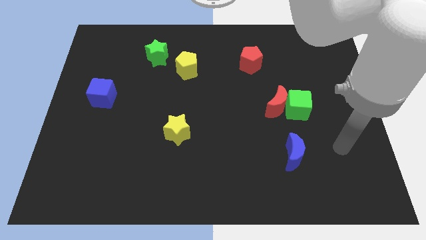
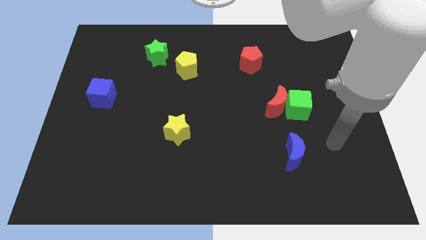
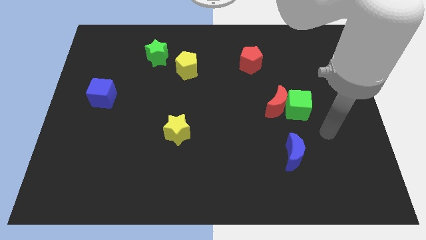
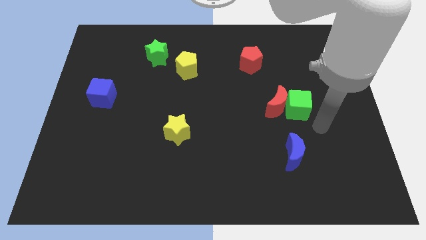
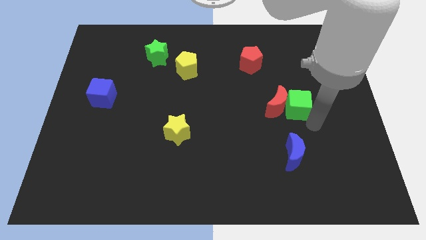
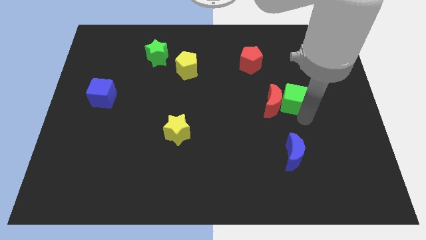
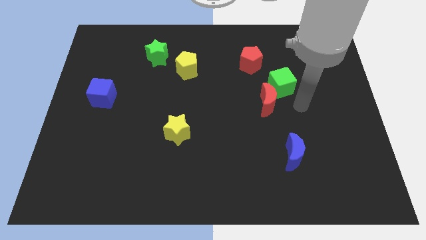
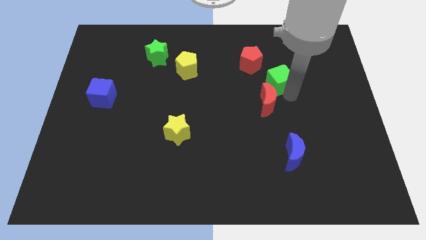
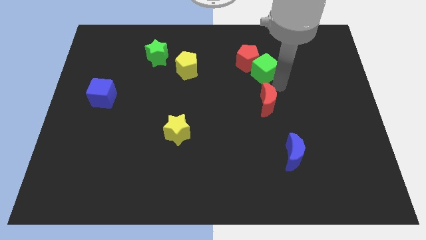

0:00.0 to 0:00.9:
move the red moon away from the green cube

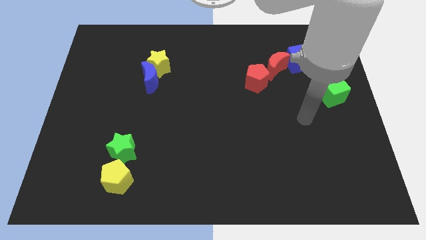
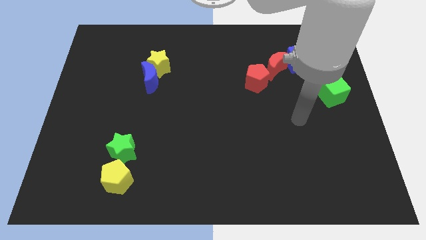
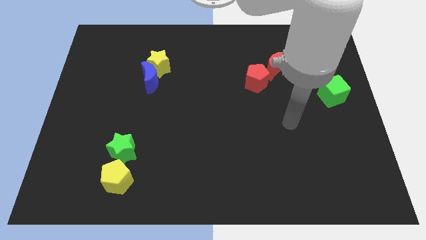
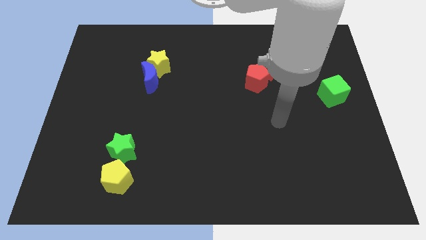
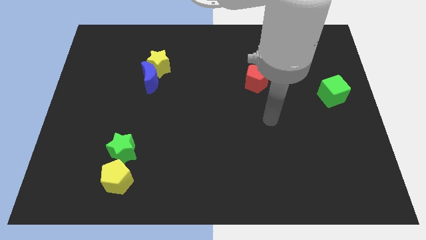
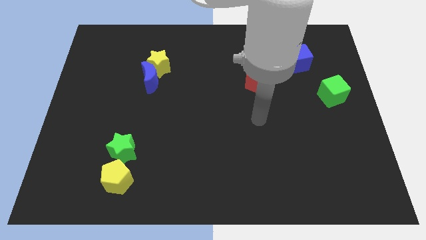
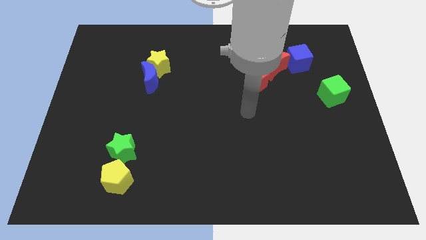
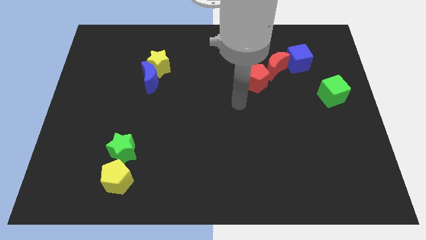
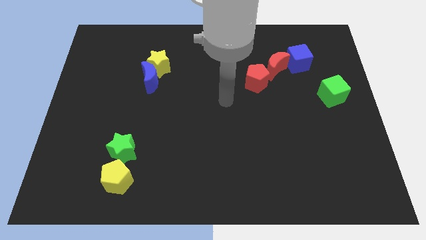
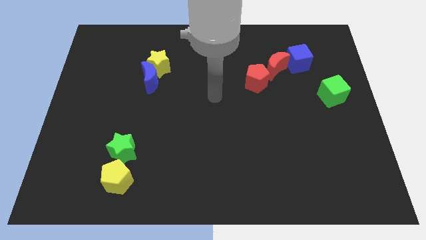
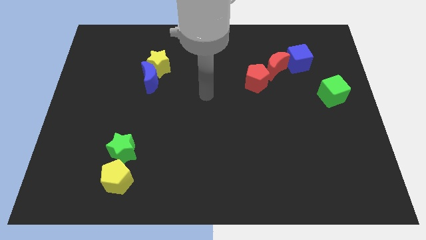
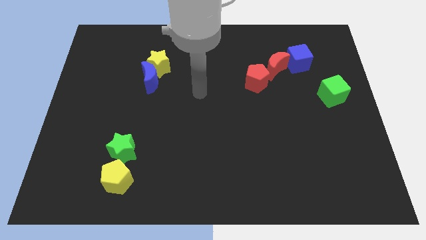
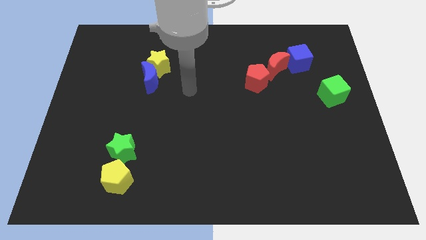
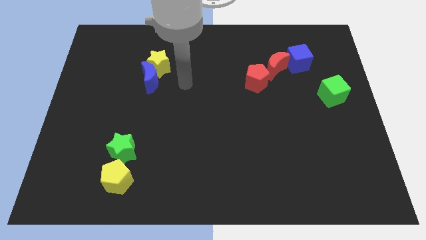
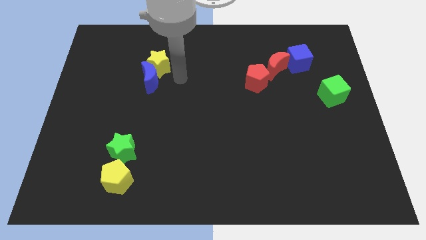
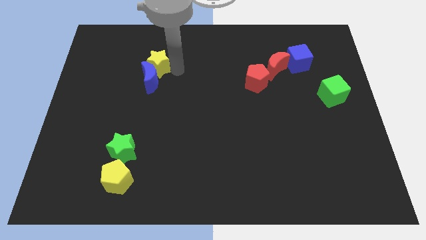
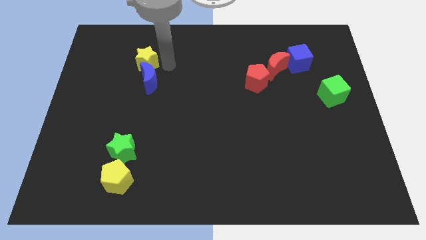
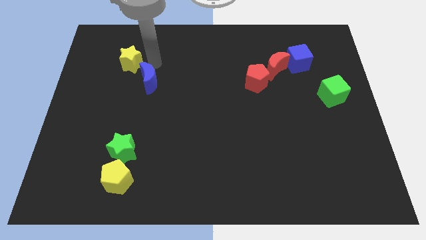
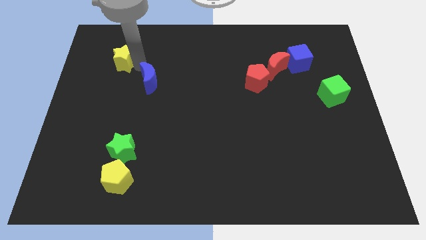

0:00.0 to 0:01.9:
move the blue moon away from the yellow star

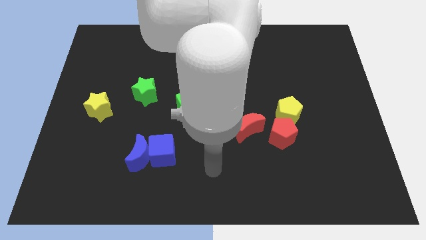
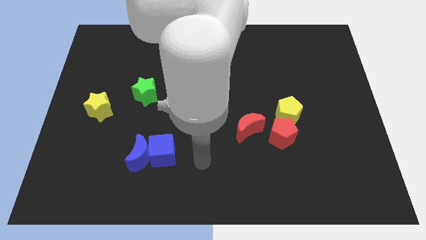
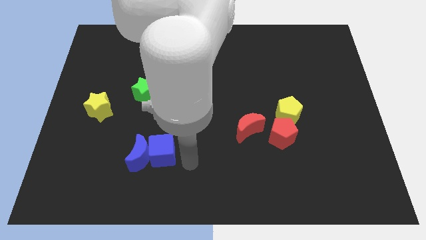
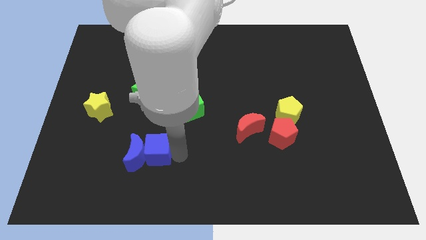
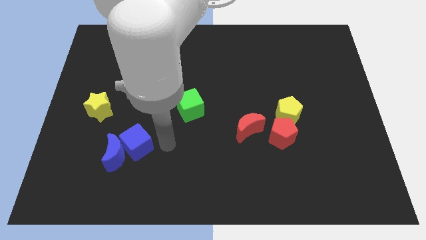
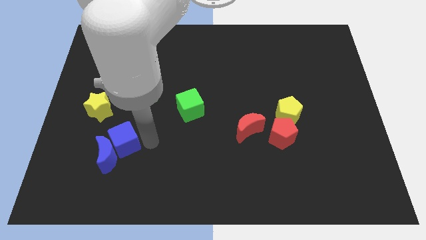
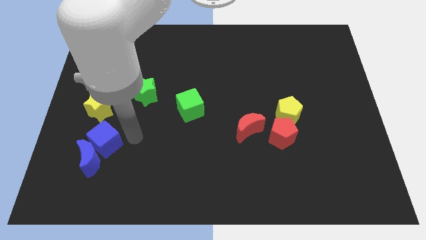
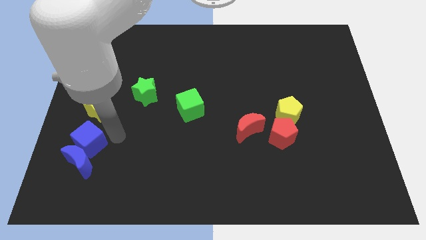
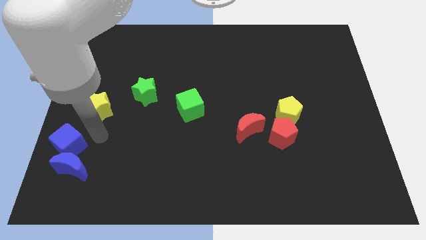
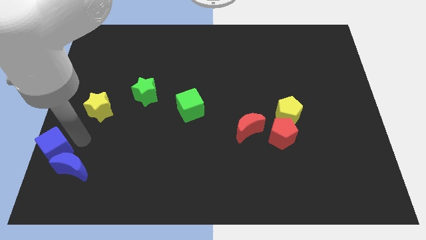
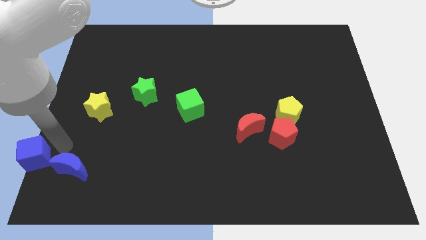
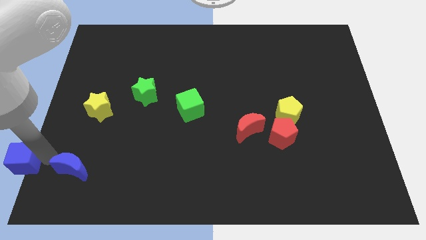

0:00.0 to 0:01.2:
move the blue moon away from the blue cube

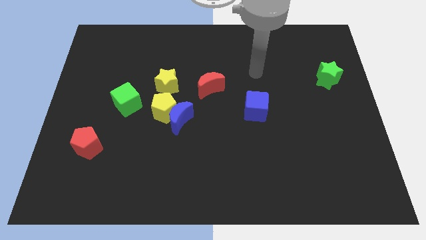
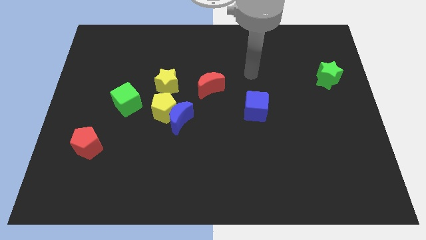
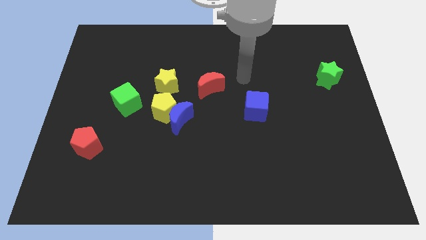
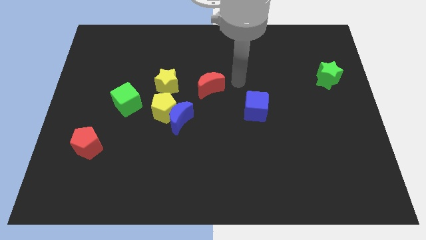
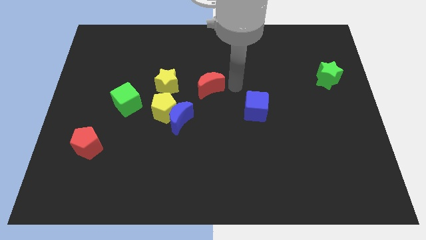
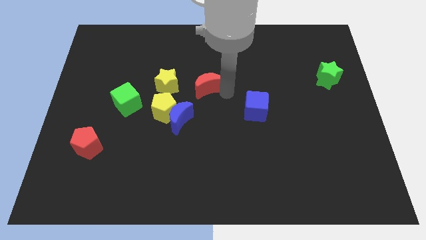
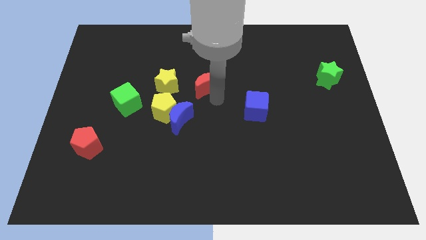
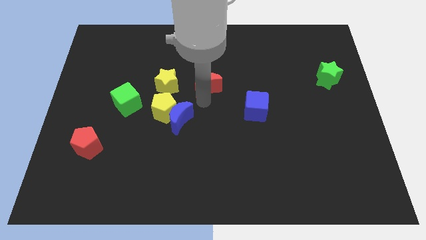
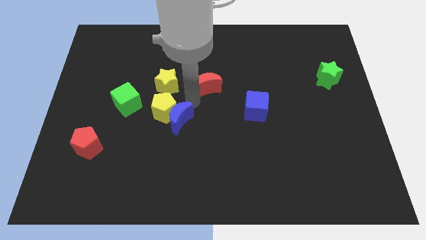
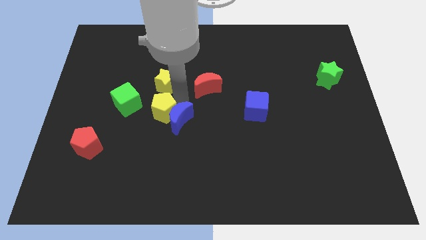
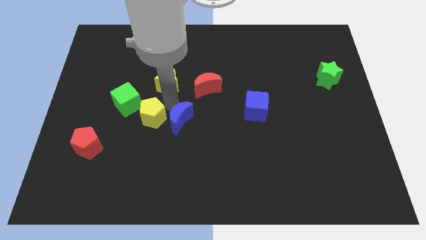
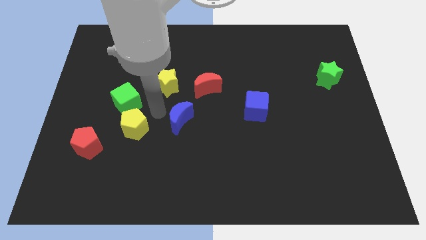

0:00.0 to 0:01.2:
move the blue moon away from the yellow pentagon

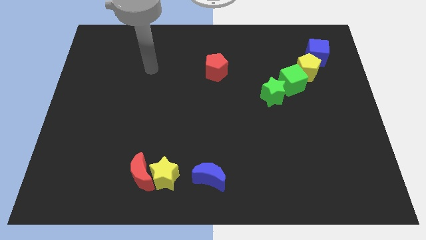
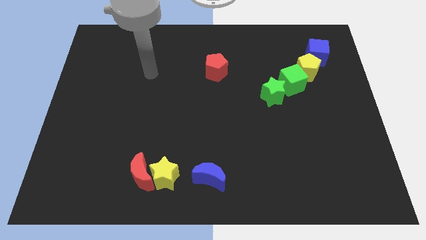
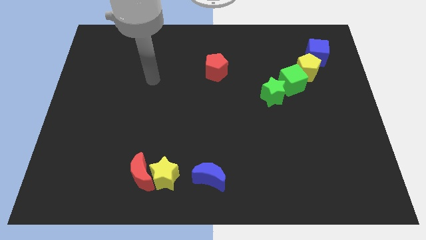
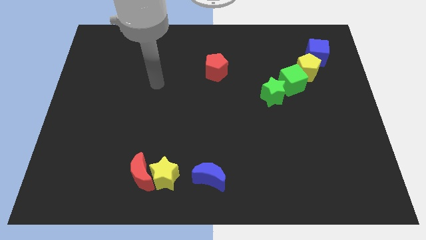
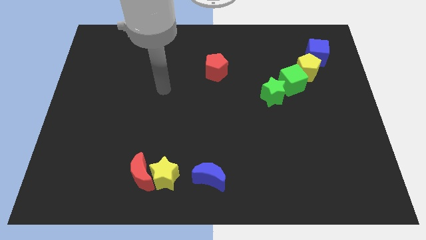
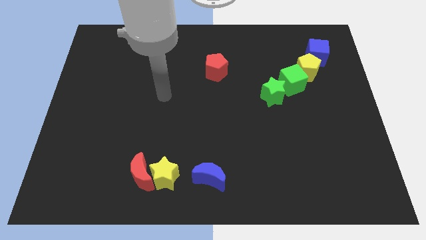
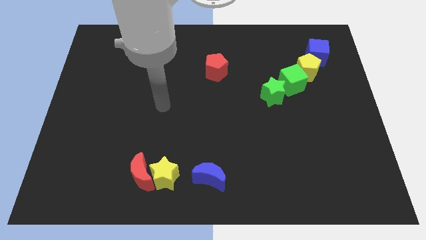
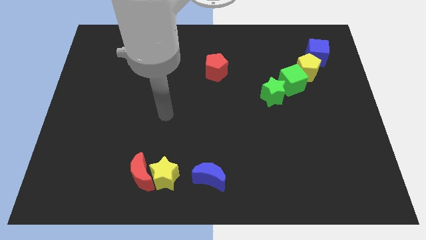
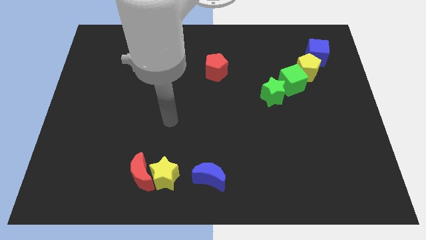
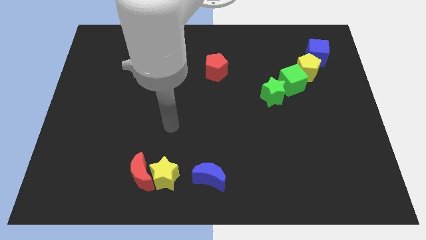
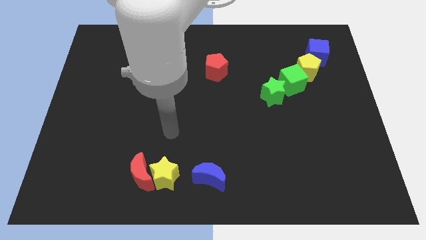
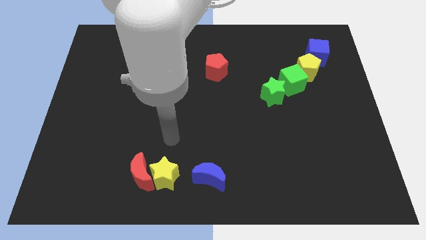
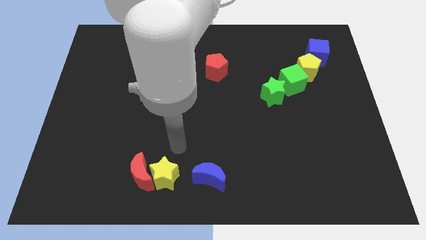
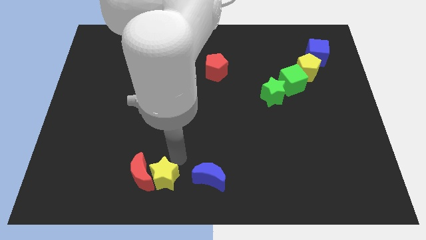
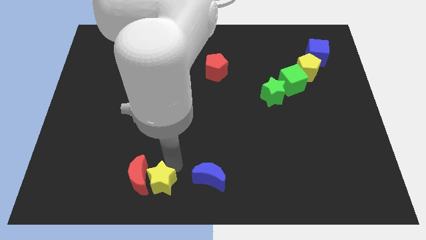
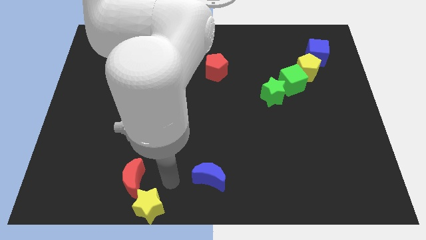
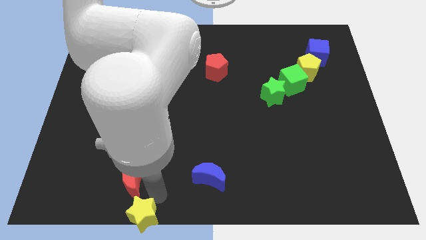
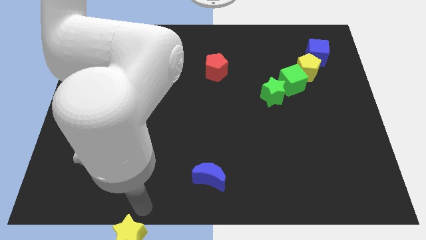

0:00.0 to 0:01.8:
separate the red moon from the yellow star

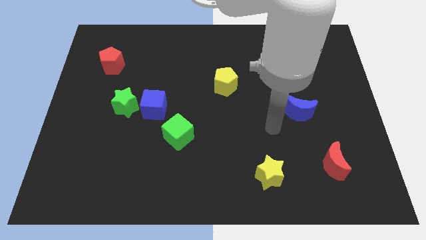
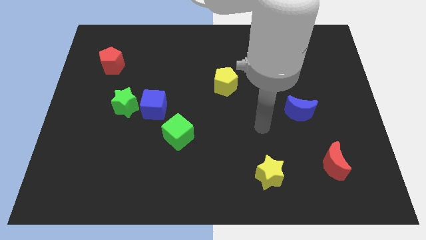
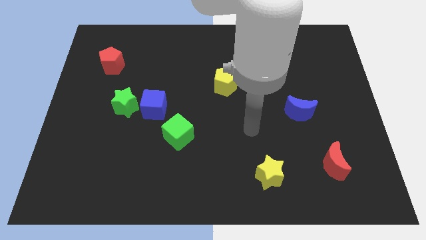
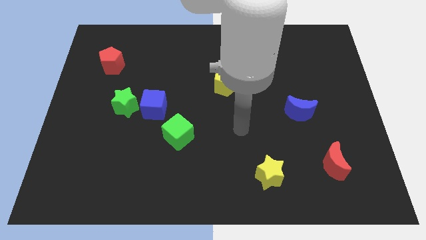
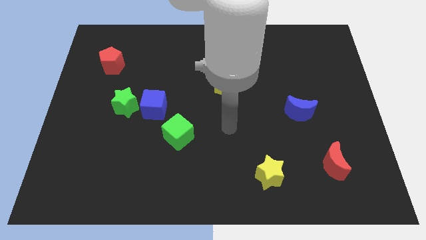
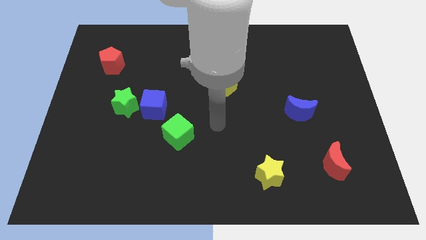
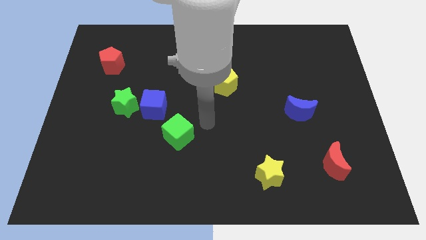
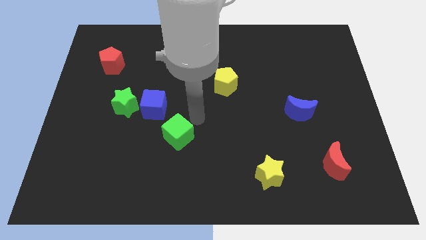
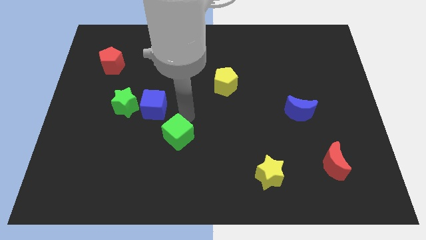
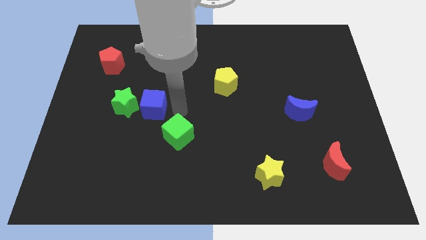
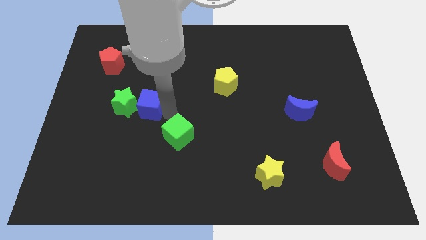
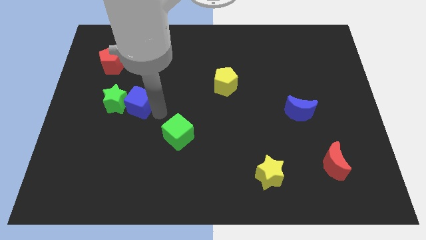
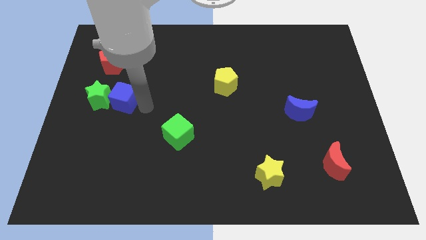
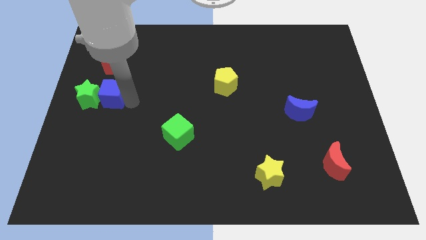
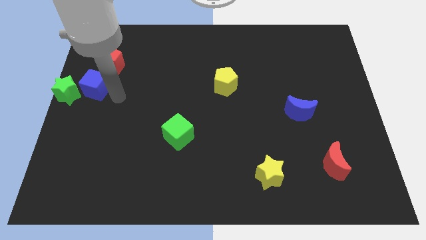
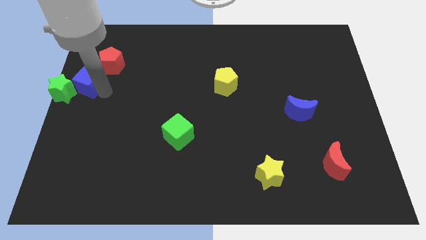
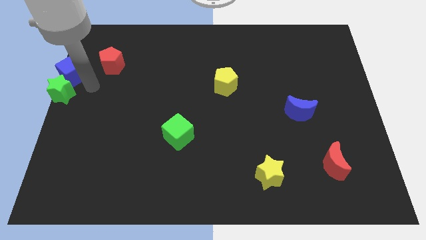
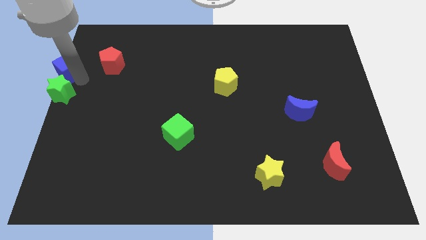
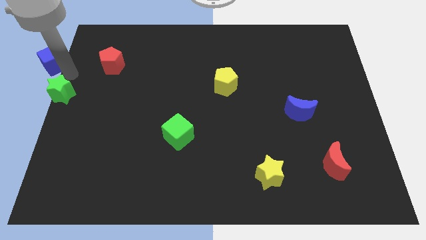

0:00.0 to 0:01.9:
separate the green star from the blue cube

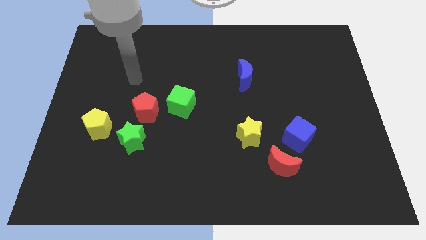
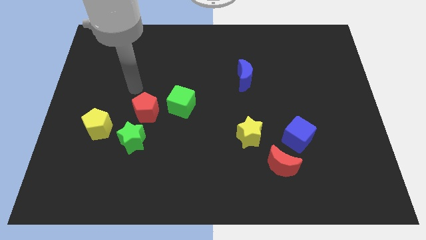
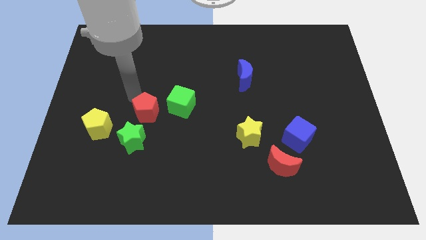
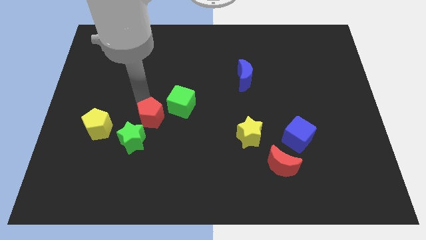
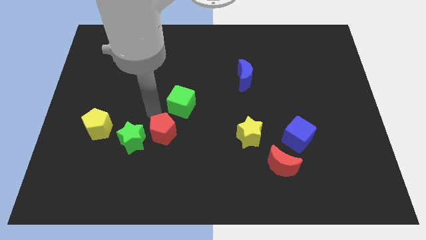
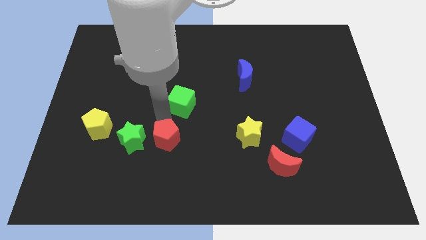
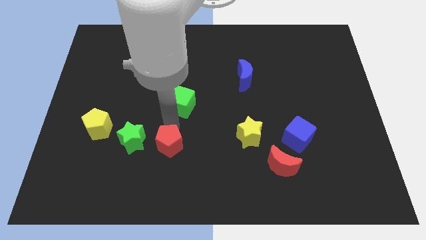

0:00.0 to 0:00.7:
separate the green cube from the red pentagon
